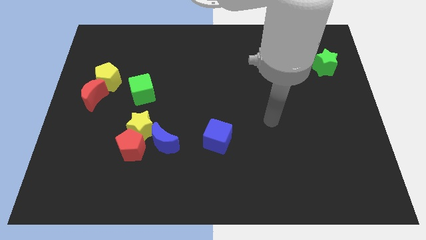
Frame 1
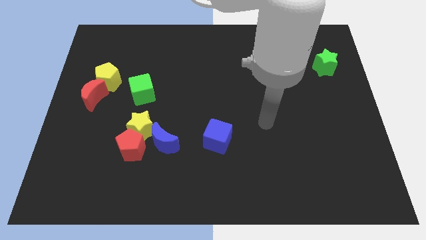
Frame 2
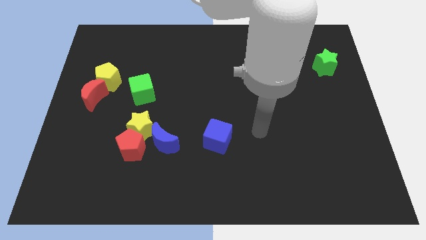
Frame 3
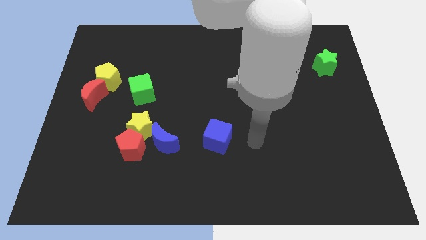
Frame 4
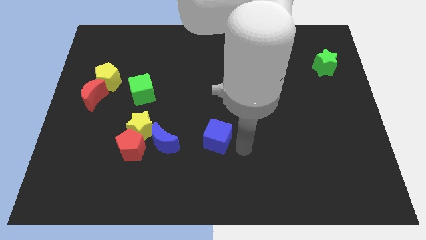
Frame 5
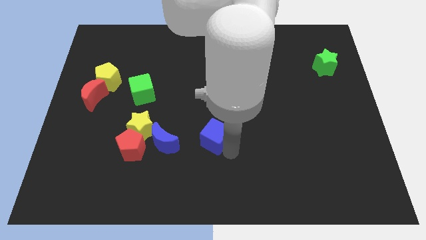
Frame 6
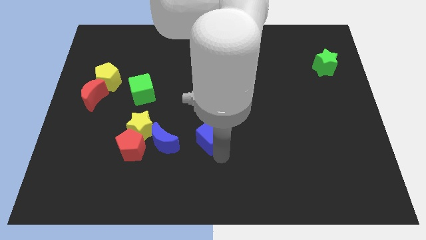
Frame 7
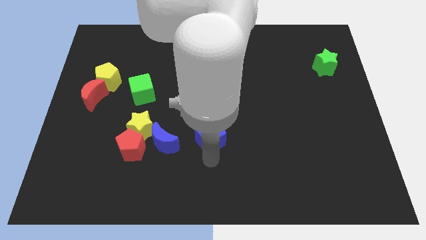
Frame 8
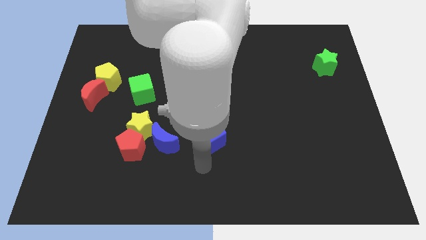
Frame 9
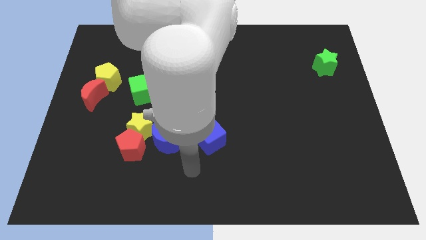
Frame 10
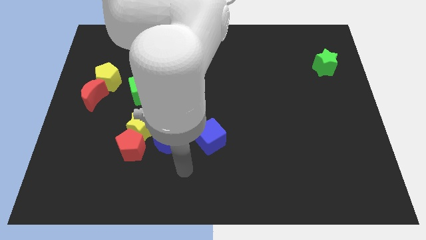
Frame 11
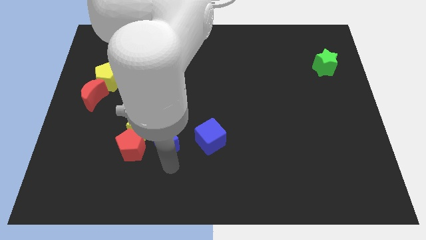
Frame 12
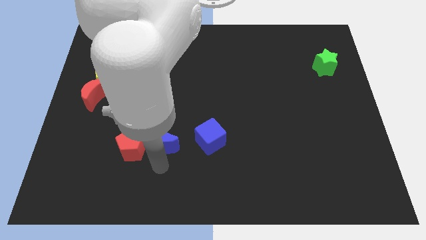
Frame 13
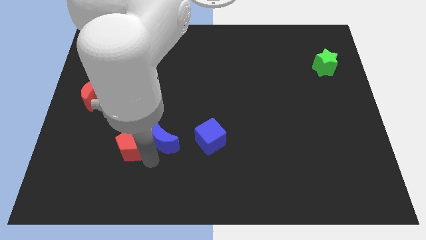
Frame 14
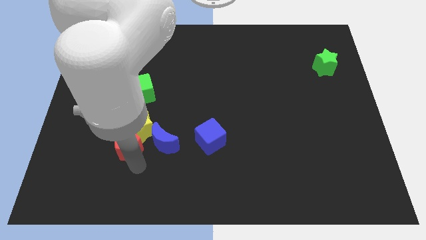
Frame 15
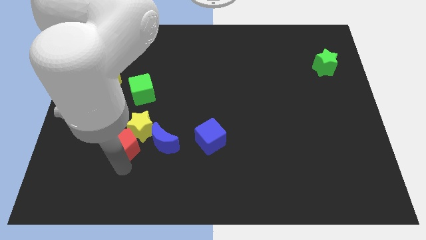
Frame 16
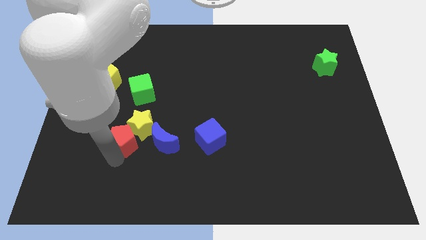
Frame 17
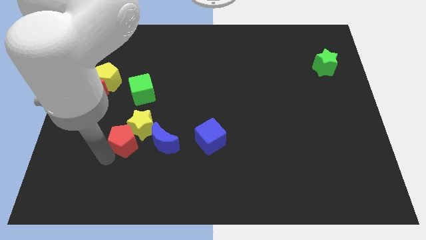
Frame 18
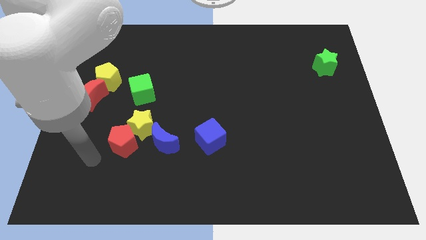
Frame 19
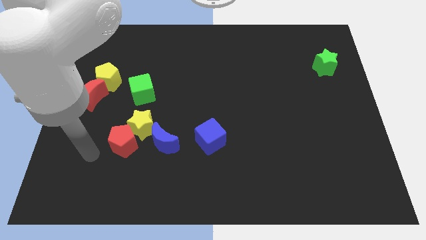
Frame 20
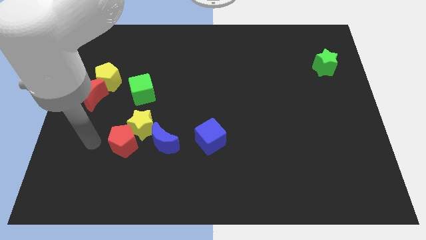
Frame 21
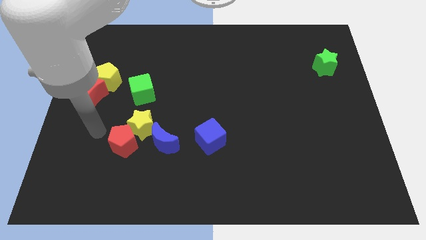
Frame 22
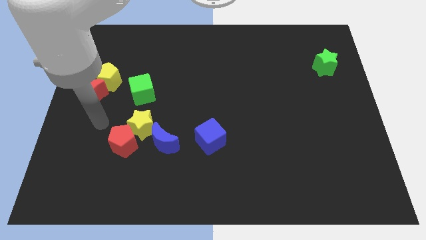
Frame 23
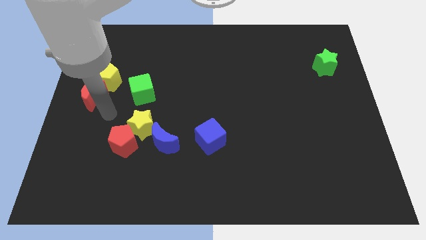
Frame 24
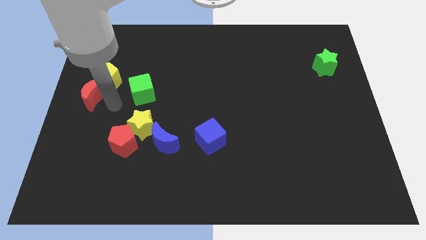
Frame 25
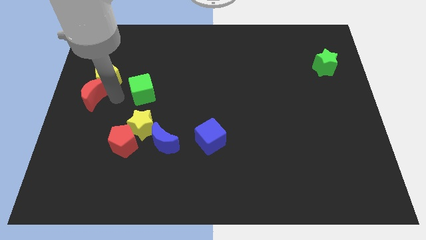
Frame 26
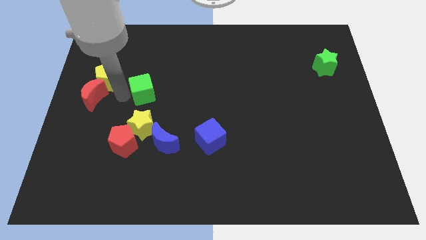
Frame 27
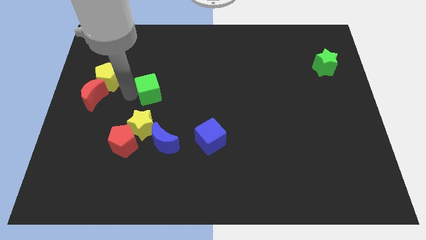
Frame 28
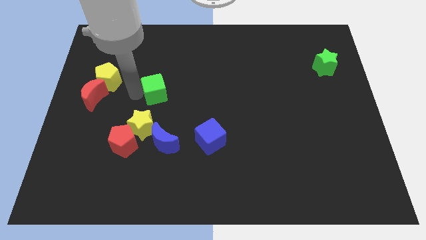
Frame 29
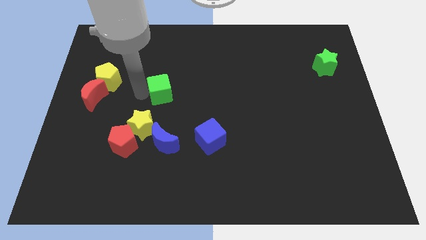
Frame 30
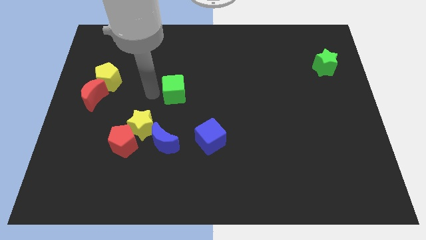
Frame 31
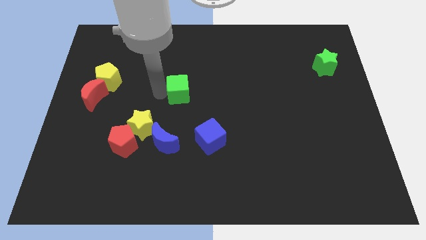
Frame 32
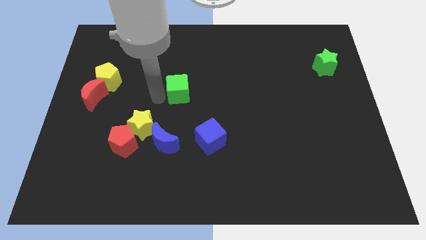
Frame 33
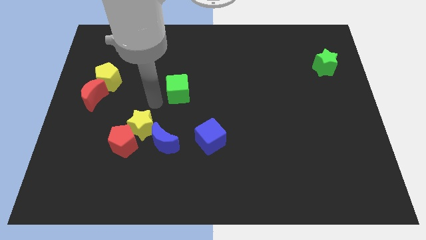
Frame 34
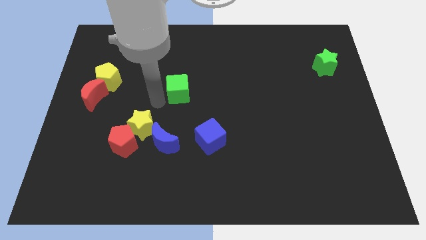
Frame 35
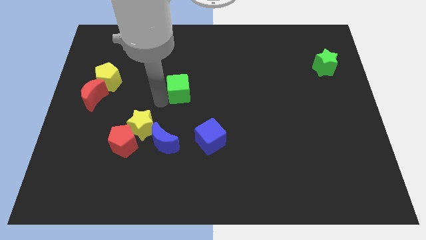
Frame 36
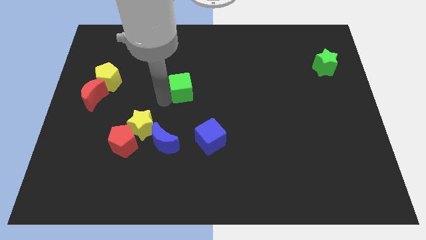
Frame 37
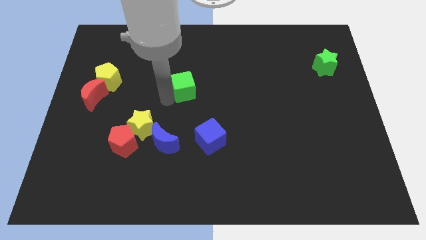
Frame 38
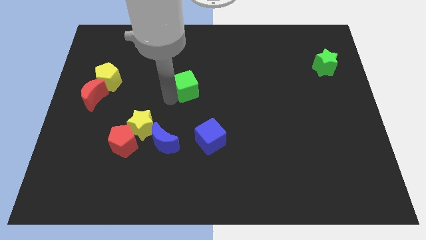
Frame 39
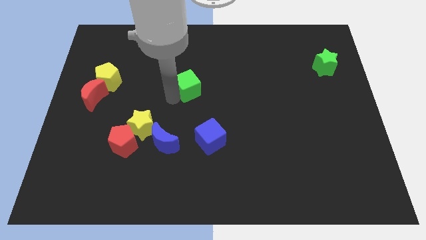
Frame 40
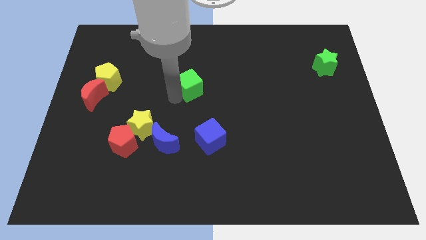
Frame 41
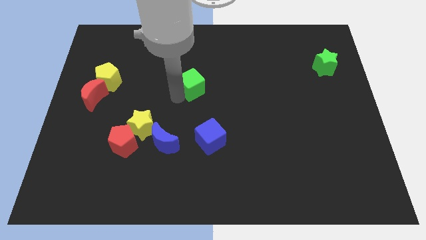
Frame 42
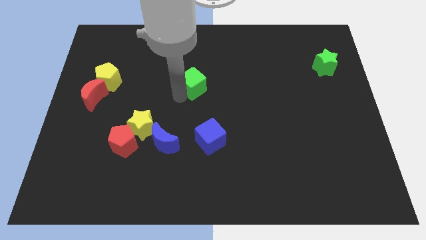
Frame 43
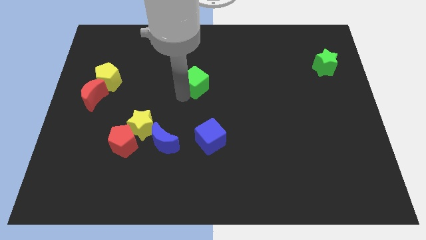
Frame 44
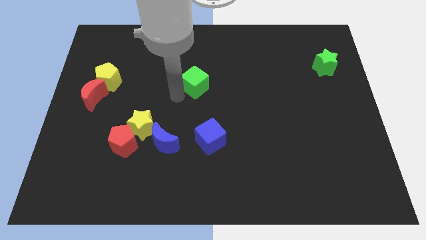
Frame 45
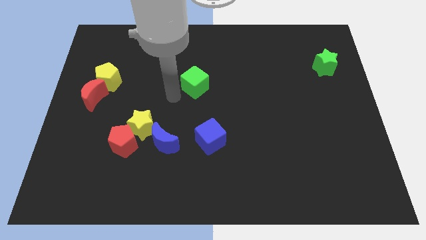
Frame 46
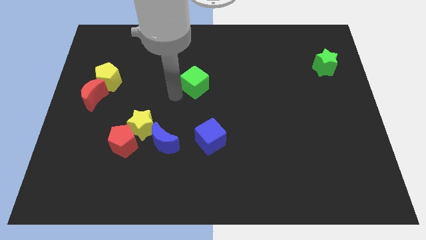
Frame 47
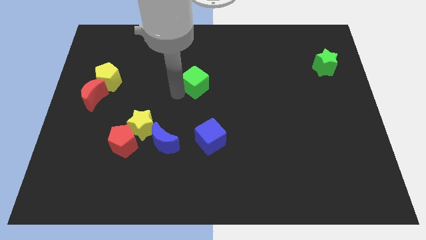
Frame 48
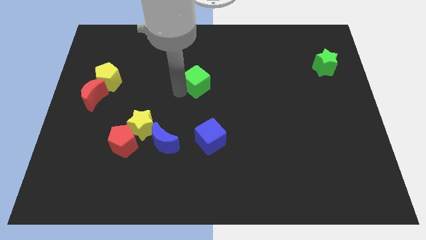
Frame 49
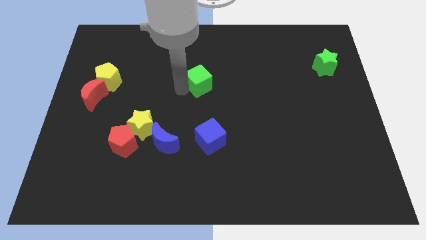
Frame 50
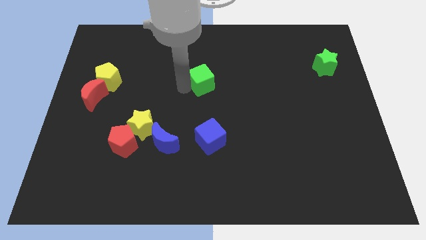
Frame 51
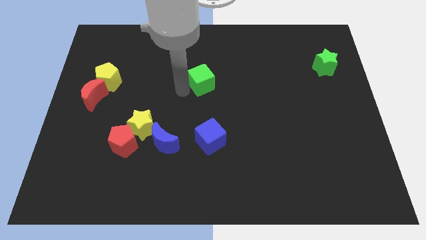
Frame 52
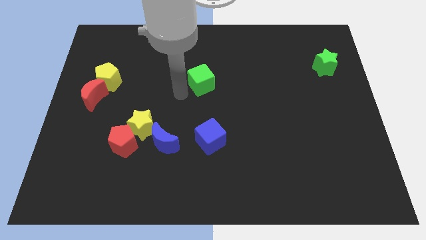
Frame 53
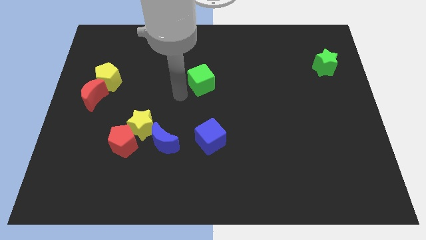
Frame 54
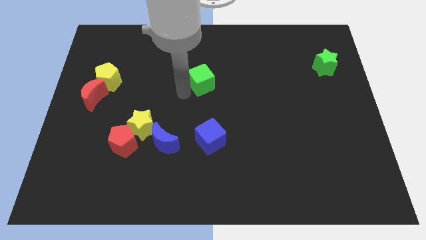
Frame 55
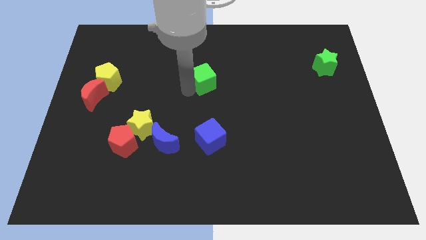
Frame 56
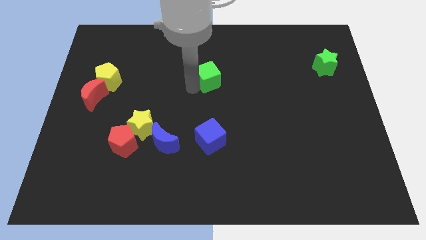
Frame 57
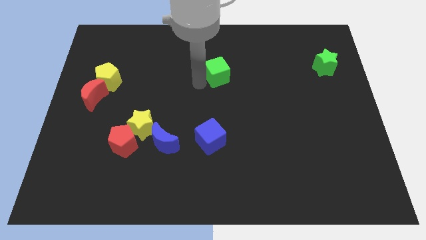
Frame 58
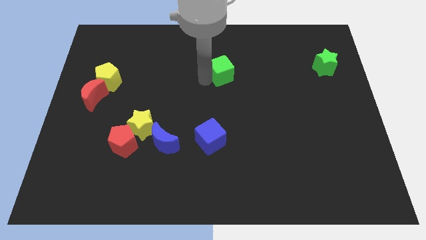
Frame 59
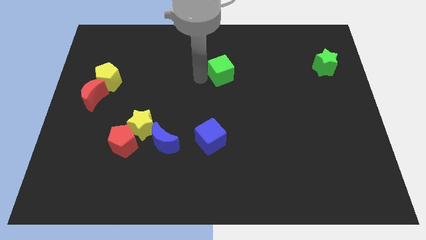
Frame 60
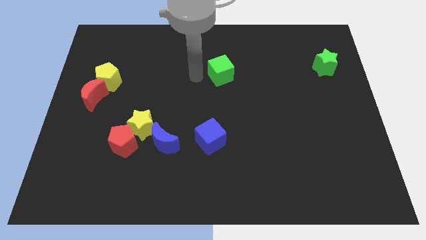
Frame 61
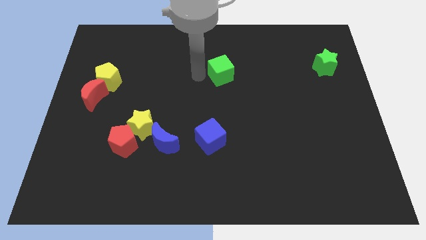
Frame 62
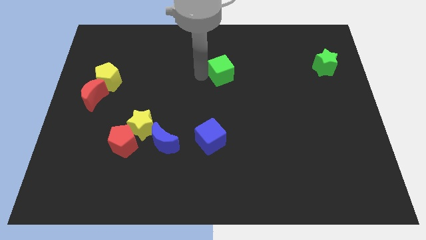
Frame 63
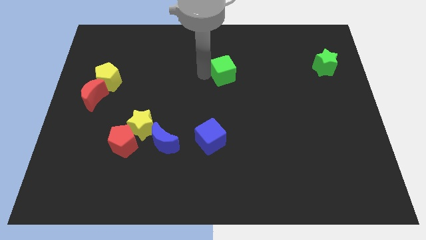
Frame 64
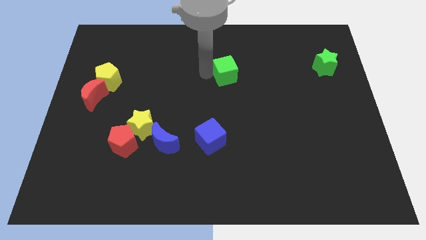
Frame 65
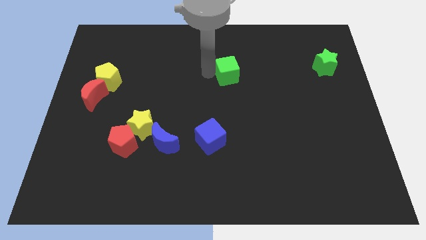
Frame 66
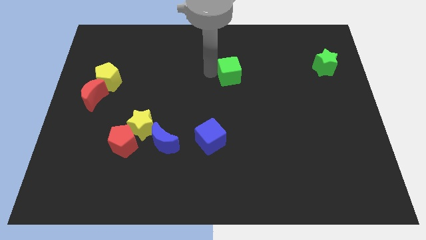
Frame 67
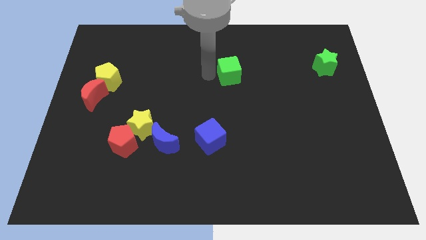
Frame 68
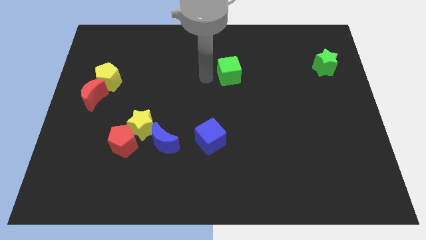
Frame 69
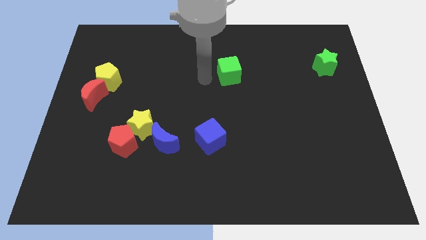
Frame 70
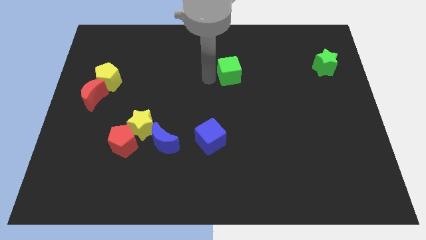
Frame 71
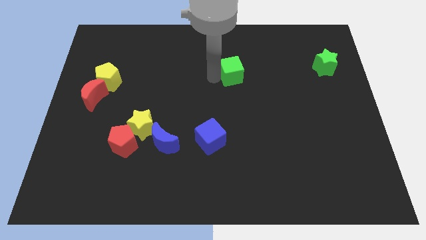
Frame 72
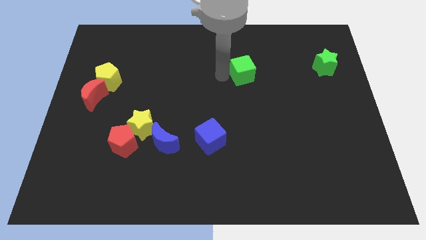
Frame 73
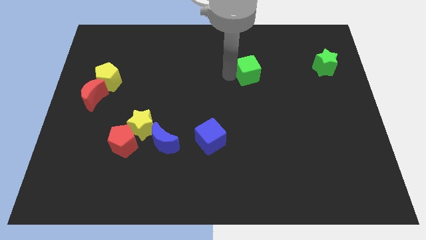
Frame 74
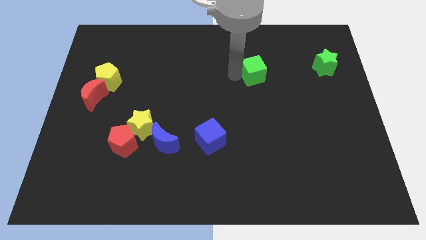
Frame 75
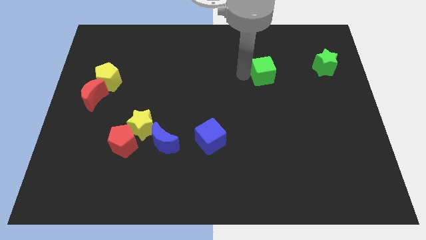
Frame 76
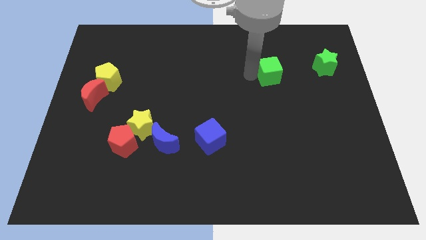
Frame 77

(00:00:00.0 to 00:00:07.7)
push the green cube just left of the green star
